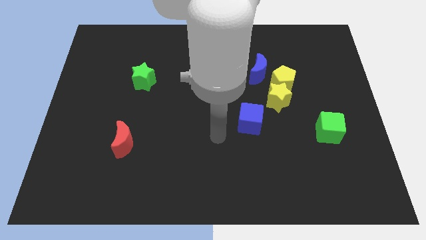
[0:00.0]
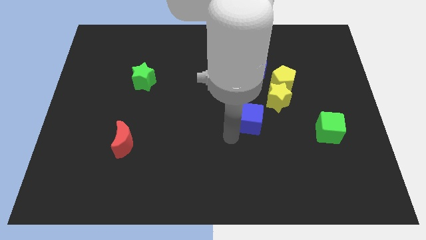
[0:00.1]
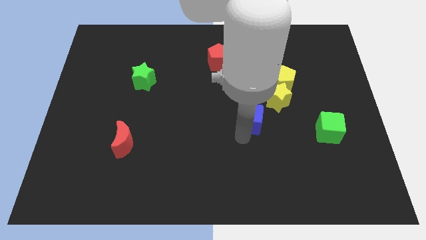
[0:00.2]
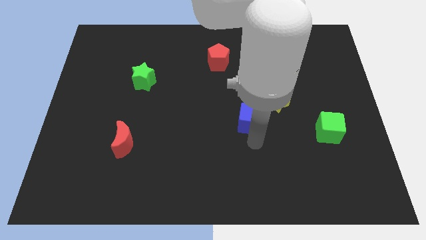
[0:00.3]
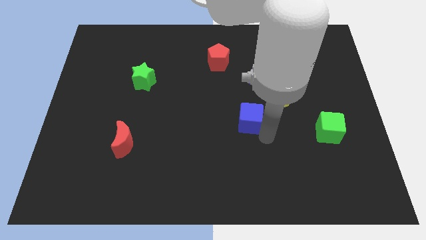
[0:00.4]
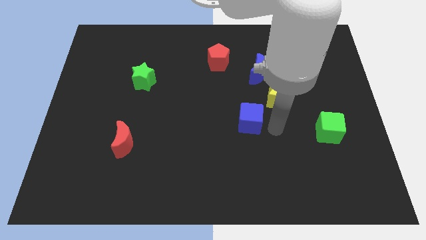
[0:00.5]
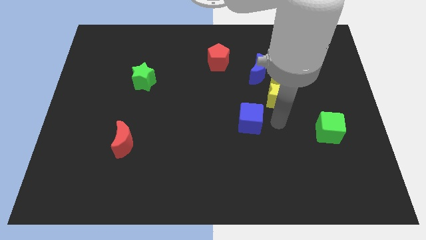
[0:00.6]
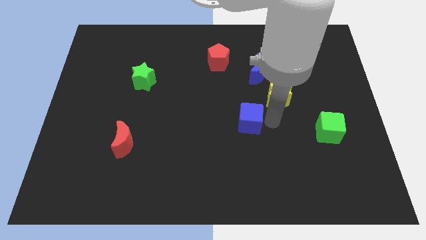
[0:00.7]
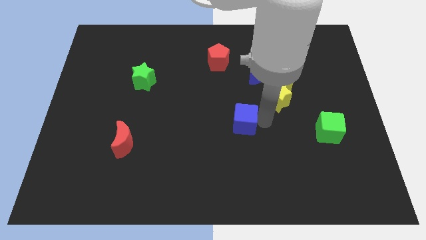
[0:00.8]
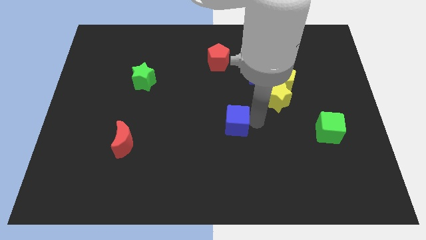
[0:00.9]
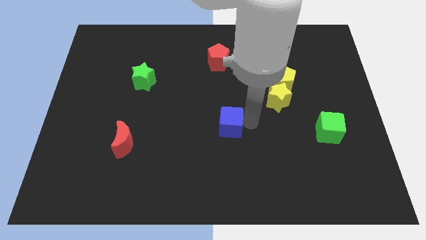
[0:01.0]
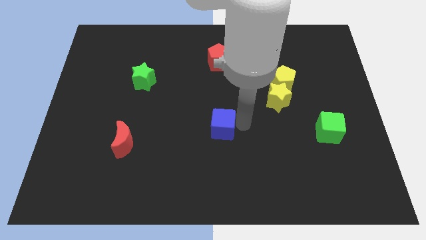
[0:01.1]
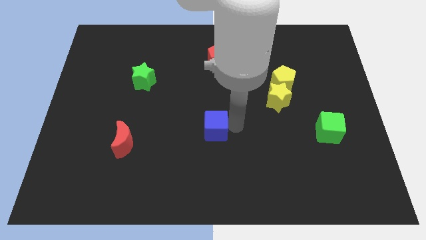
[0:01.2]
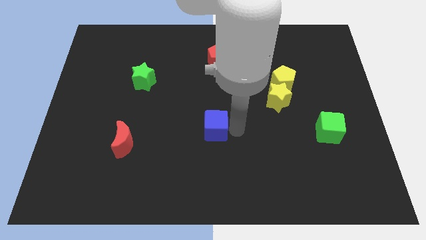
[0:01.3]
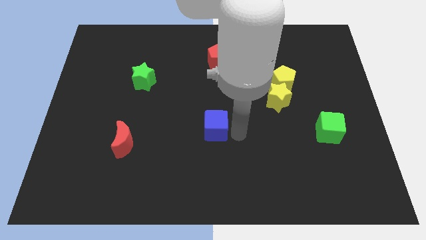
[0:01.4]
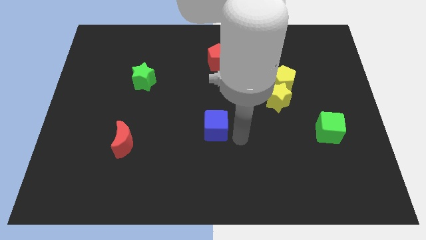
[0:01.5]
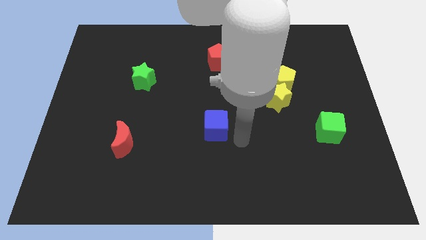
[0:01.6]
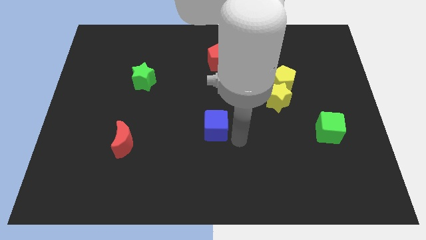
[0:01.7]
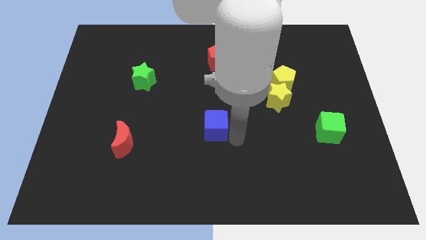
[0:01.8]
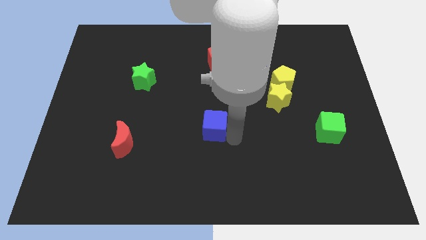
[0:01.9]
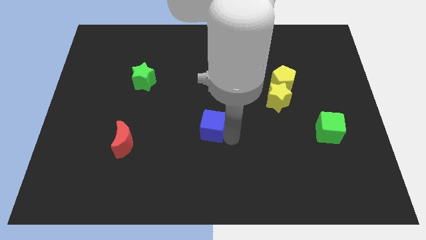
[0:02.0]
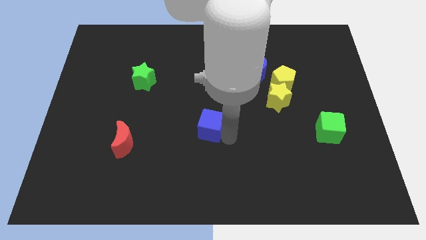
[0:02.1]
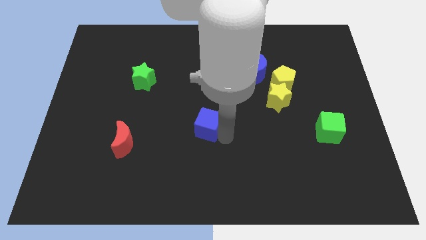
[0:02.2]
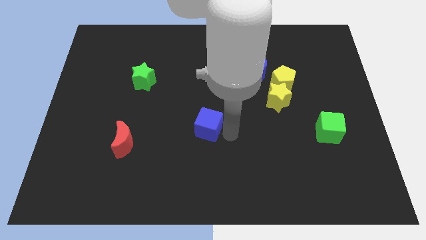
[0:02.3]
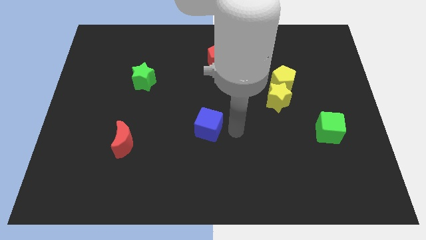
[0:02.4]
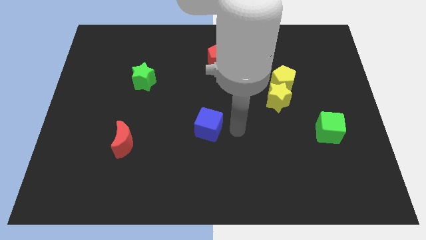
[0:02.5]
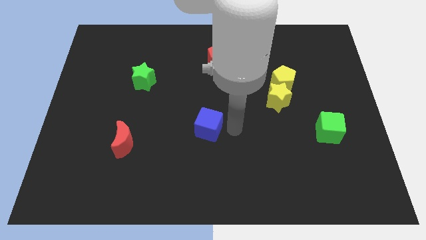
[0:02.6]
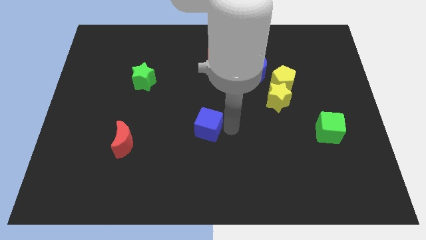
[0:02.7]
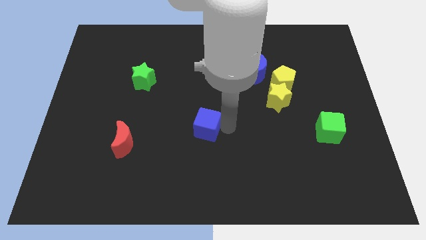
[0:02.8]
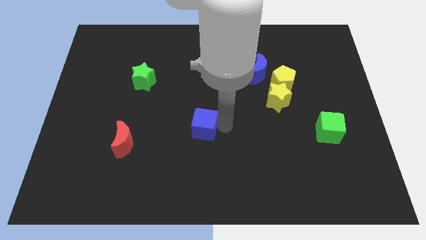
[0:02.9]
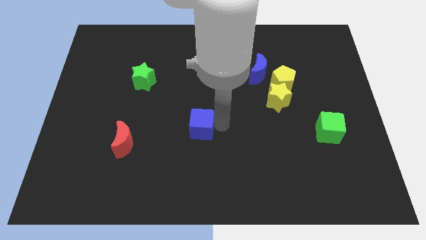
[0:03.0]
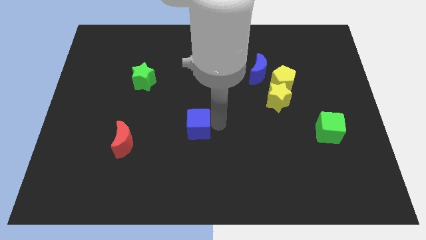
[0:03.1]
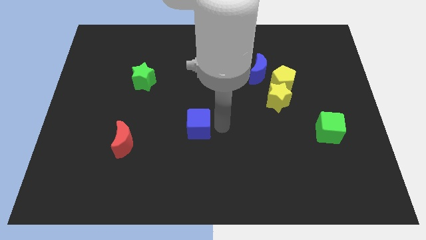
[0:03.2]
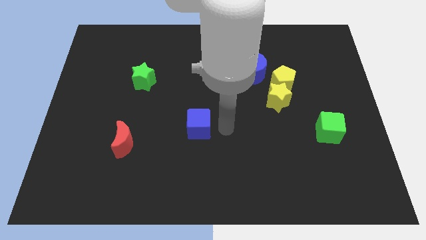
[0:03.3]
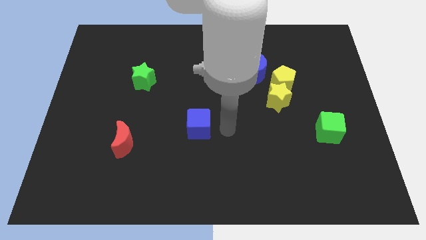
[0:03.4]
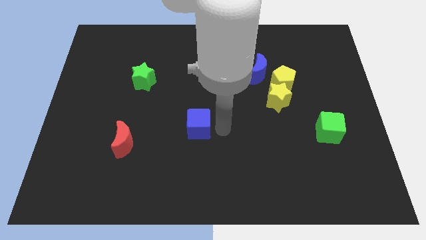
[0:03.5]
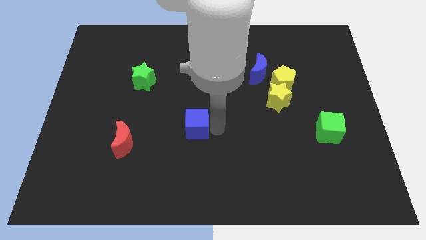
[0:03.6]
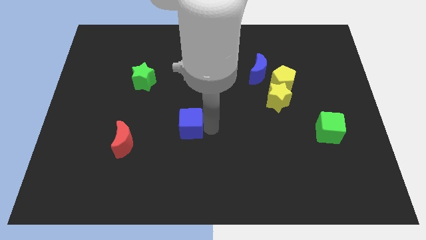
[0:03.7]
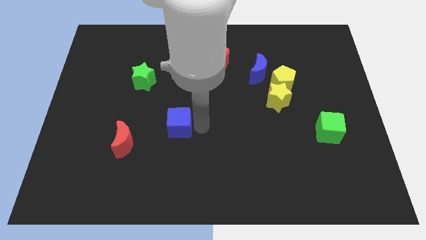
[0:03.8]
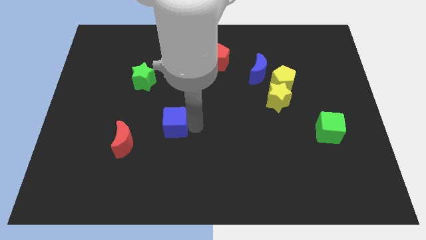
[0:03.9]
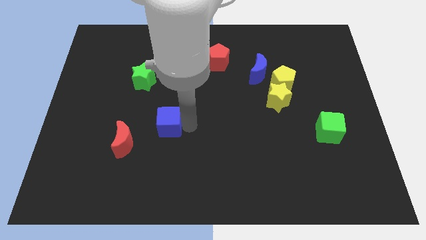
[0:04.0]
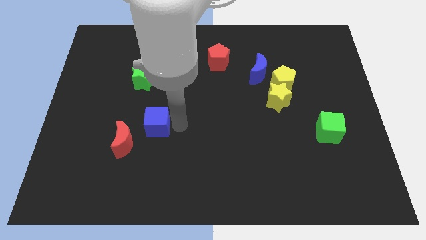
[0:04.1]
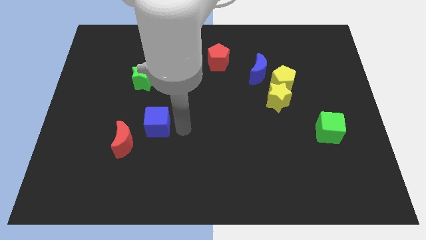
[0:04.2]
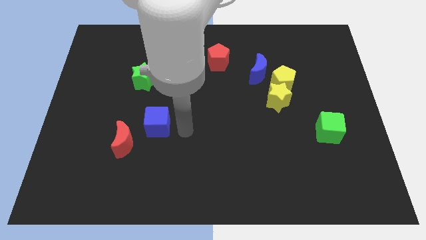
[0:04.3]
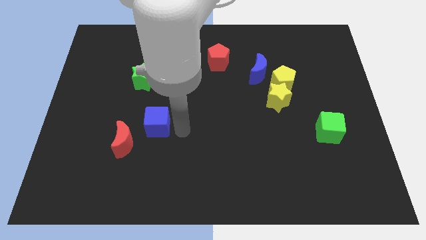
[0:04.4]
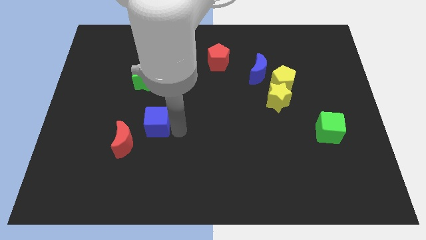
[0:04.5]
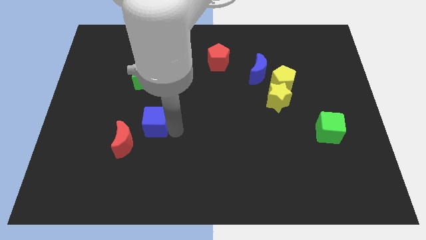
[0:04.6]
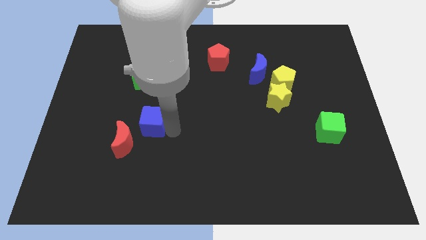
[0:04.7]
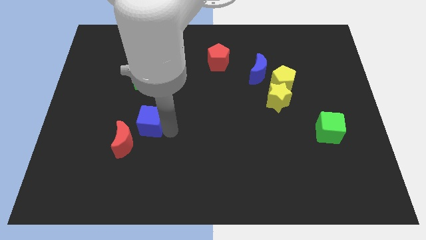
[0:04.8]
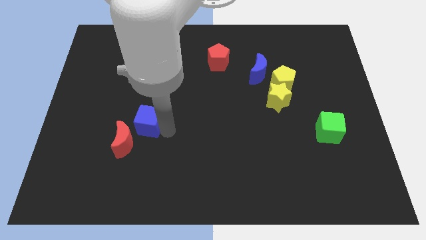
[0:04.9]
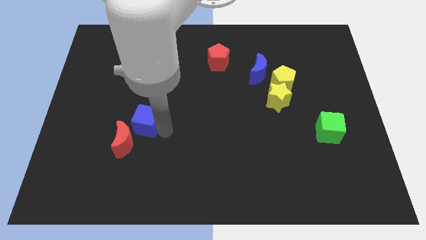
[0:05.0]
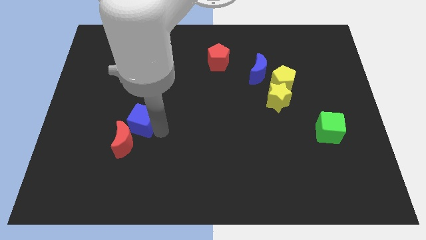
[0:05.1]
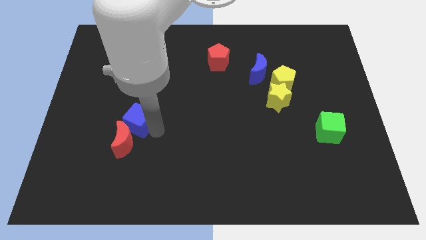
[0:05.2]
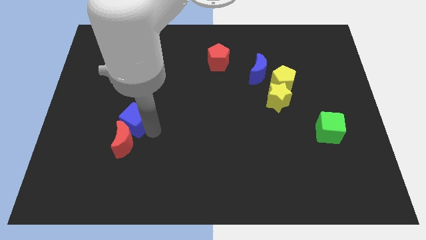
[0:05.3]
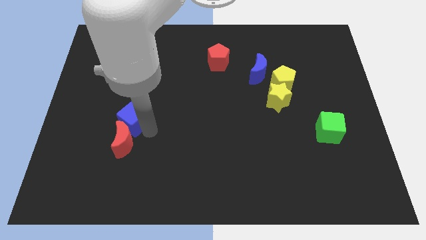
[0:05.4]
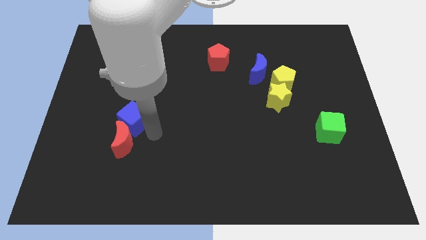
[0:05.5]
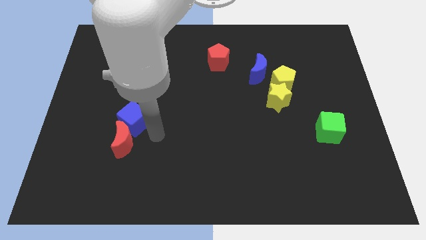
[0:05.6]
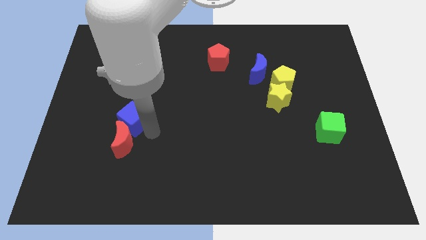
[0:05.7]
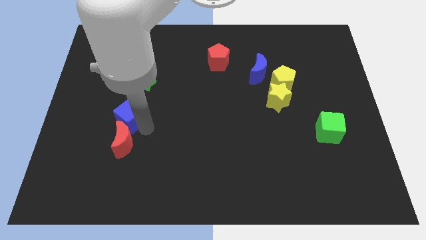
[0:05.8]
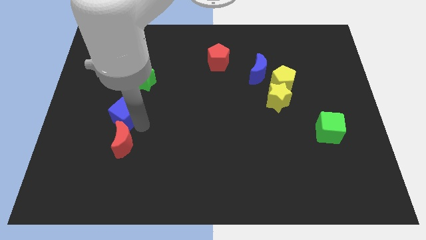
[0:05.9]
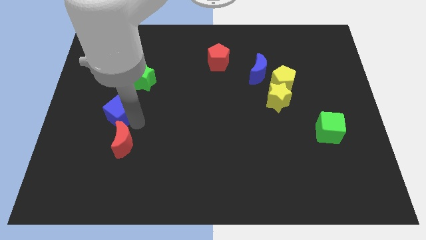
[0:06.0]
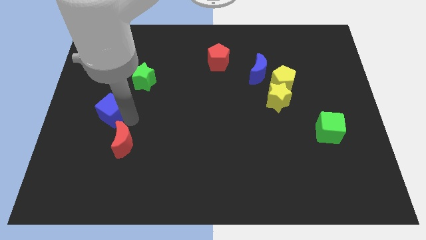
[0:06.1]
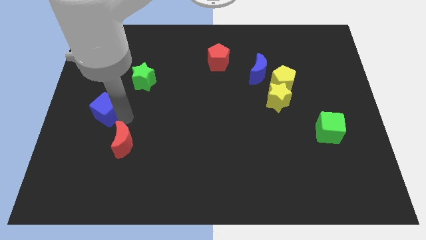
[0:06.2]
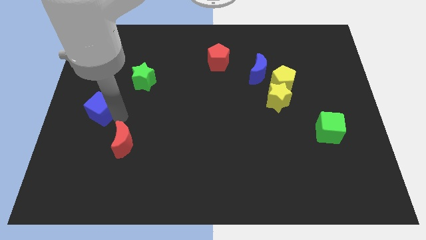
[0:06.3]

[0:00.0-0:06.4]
push the blue cube to the left side

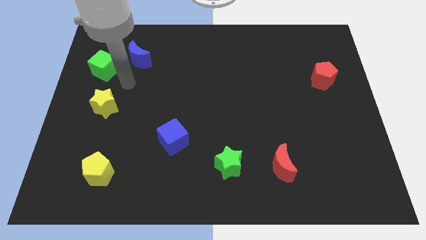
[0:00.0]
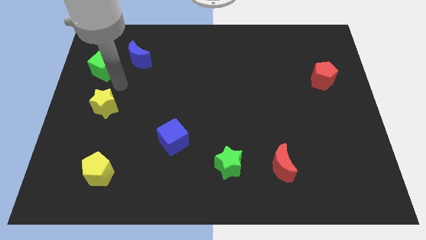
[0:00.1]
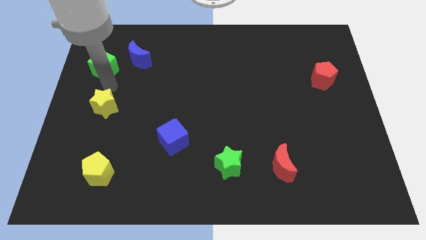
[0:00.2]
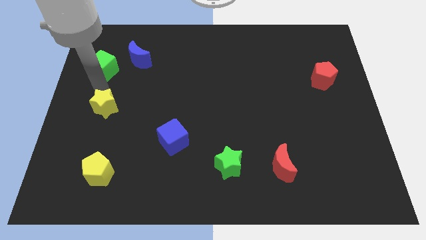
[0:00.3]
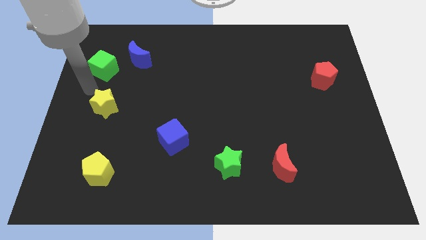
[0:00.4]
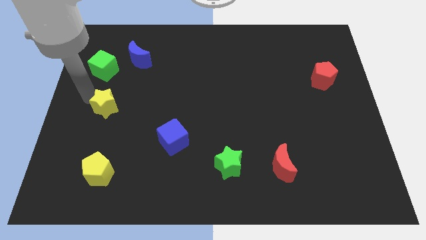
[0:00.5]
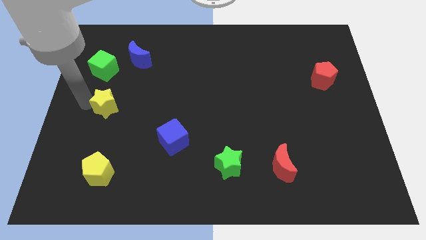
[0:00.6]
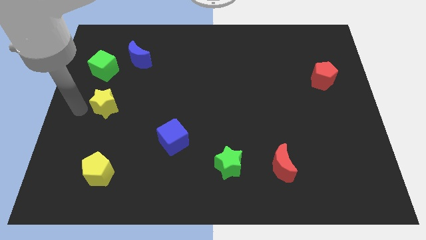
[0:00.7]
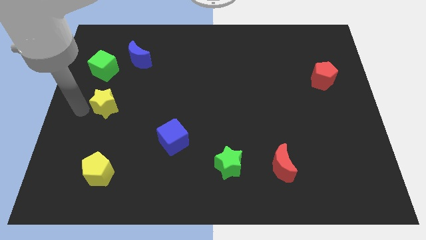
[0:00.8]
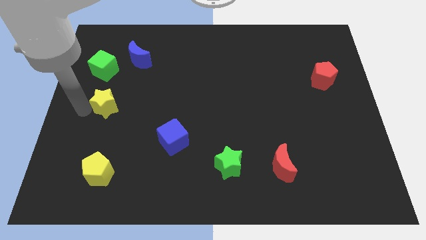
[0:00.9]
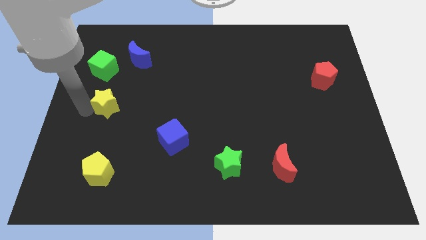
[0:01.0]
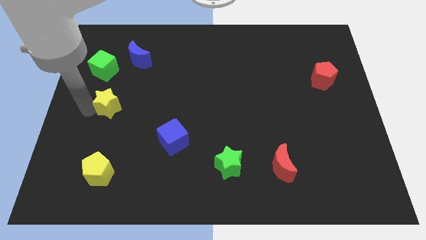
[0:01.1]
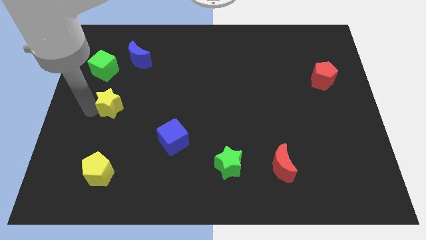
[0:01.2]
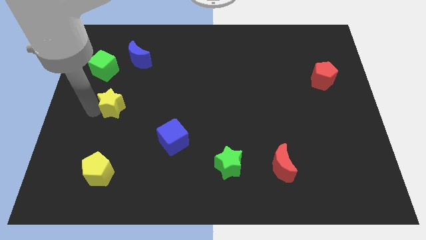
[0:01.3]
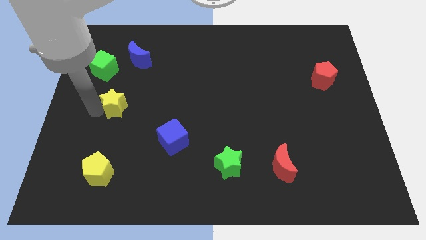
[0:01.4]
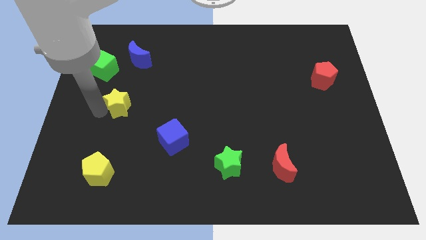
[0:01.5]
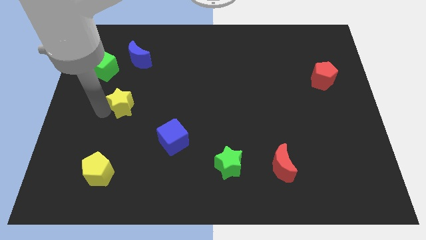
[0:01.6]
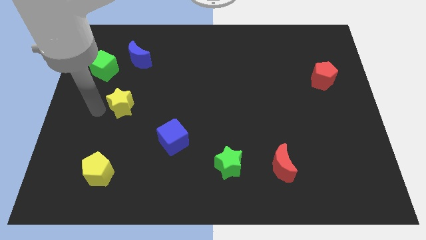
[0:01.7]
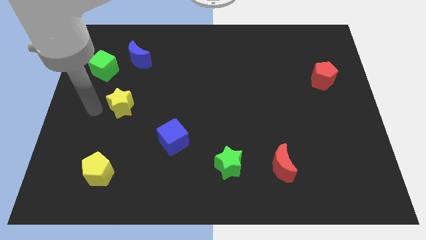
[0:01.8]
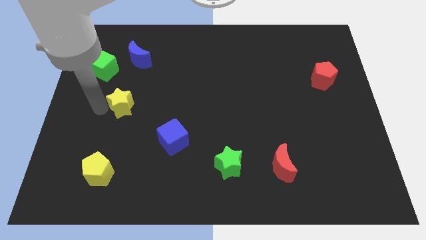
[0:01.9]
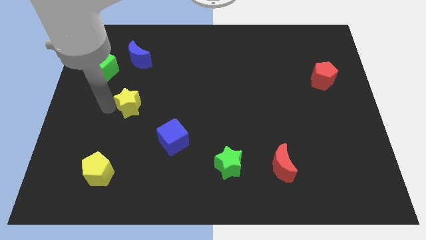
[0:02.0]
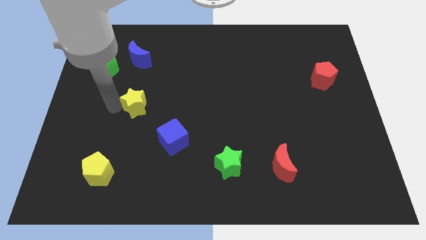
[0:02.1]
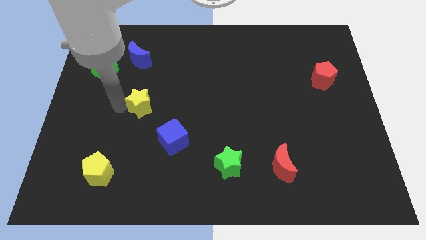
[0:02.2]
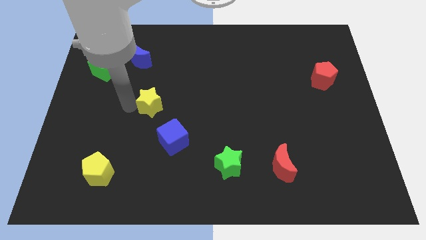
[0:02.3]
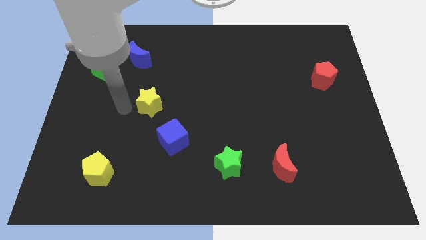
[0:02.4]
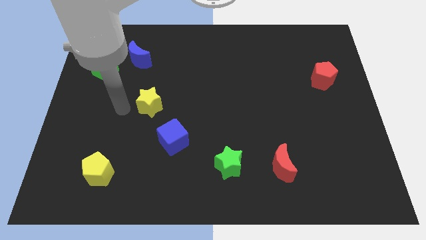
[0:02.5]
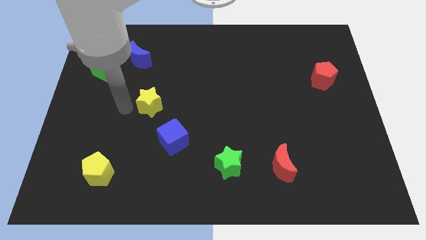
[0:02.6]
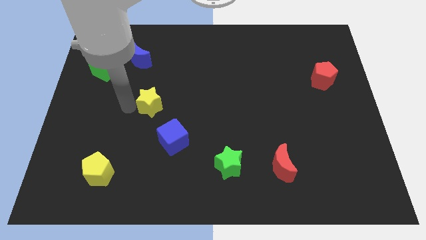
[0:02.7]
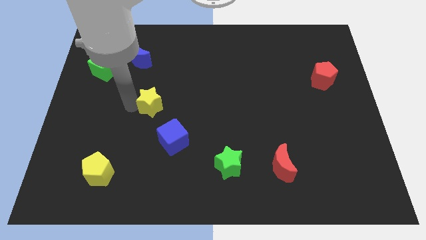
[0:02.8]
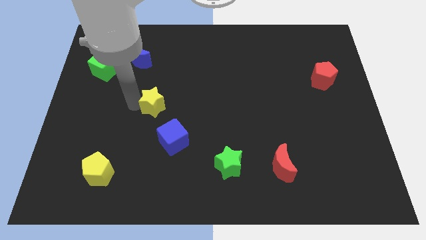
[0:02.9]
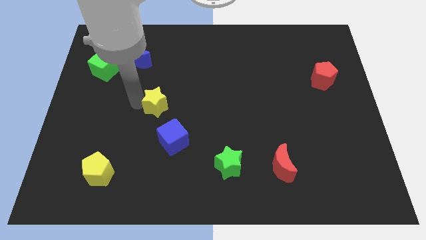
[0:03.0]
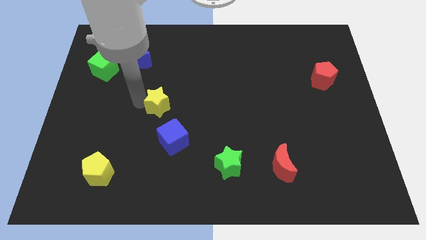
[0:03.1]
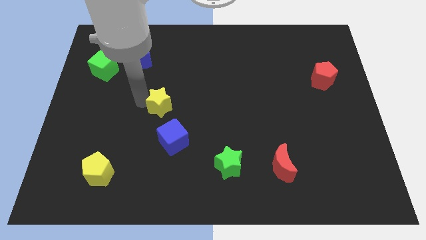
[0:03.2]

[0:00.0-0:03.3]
move the yellow star to the middle of the board
